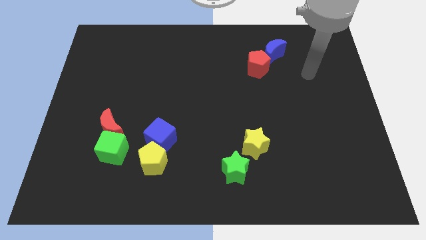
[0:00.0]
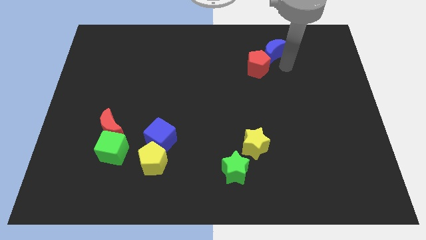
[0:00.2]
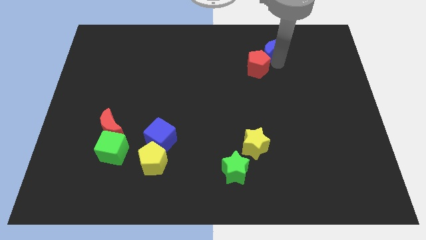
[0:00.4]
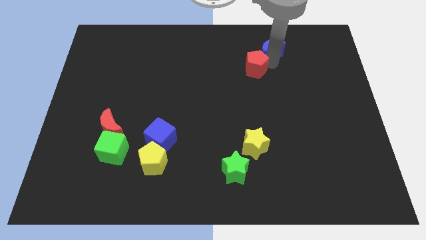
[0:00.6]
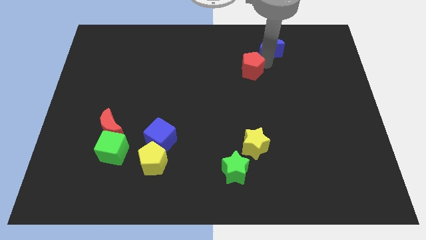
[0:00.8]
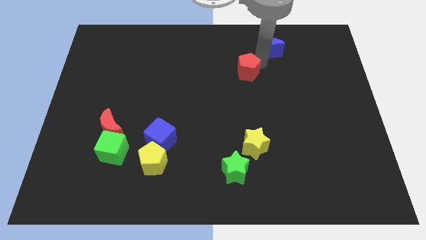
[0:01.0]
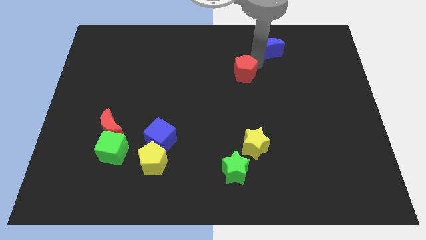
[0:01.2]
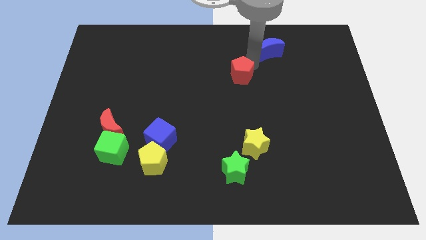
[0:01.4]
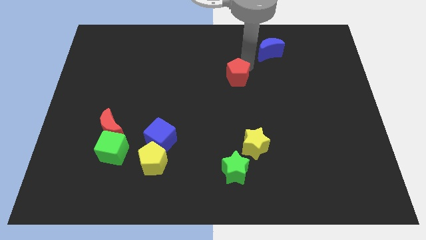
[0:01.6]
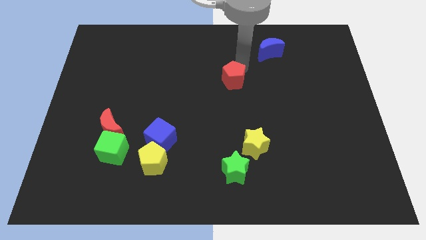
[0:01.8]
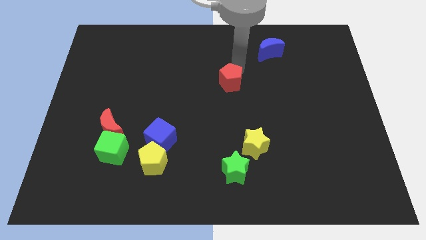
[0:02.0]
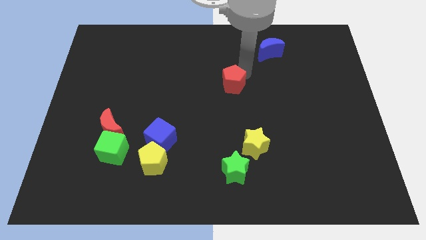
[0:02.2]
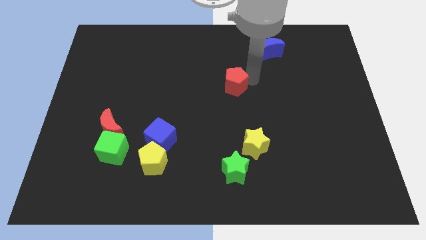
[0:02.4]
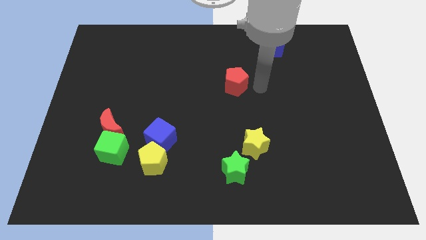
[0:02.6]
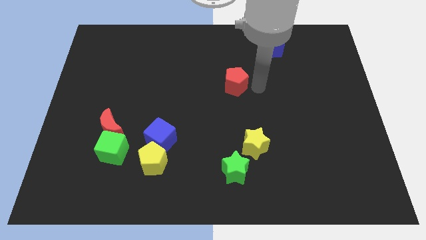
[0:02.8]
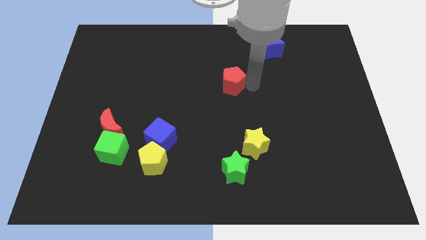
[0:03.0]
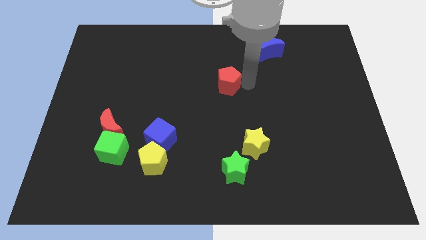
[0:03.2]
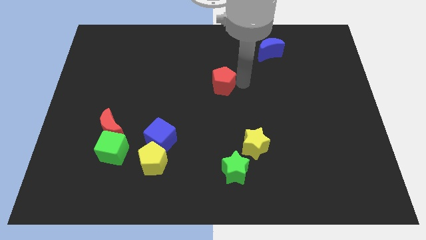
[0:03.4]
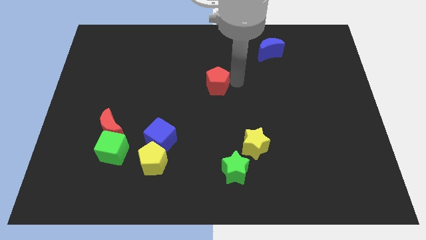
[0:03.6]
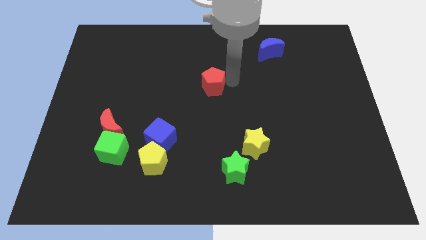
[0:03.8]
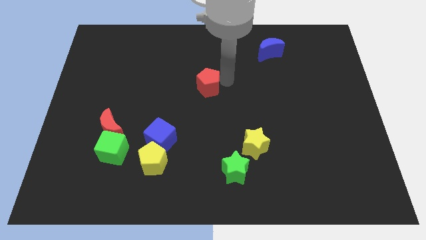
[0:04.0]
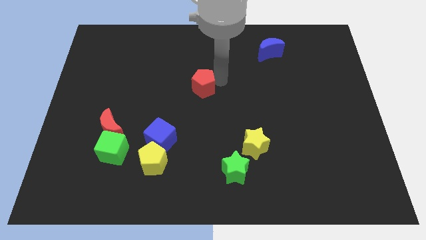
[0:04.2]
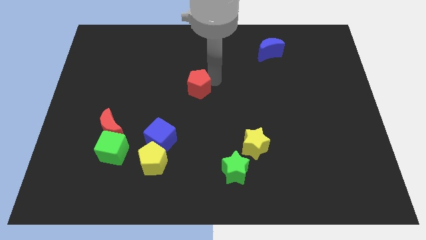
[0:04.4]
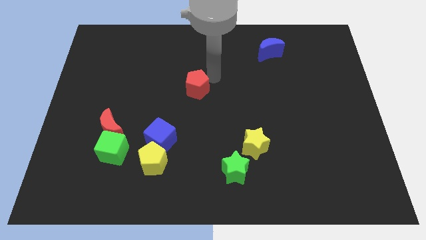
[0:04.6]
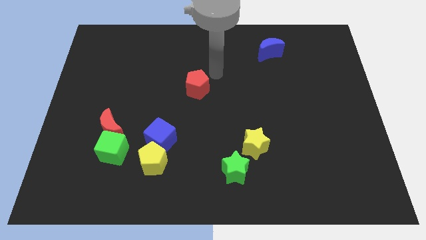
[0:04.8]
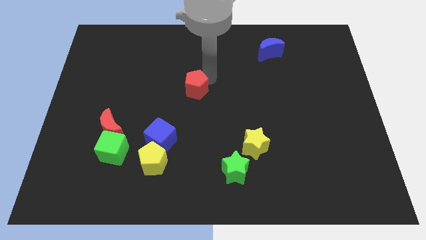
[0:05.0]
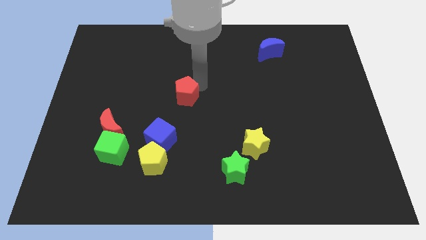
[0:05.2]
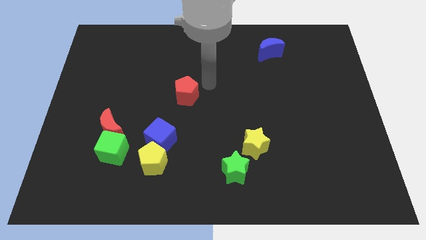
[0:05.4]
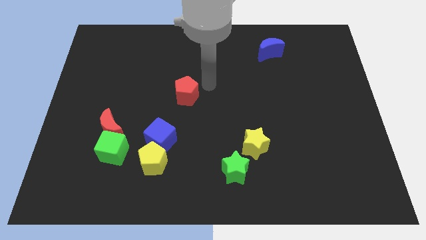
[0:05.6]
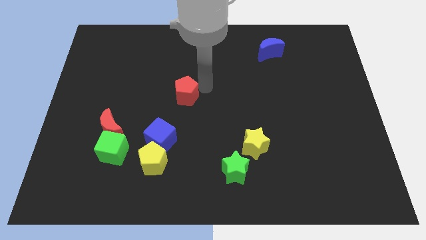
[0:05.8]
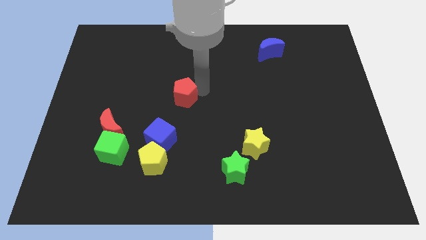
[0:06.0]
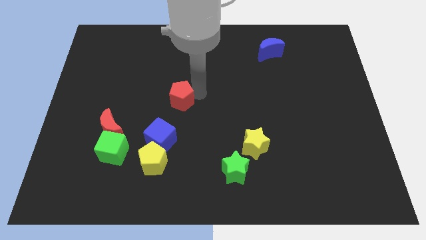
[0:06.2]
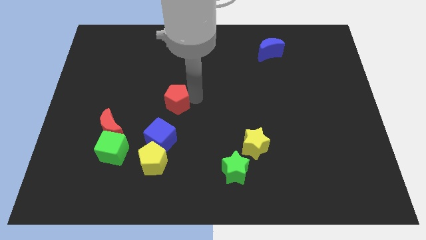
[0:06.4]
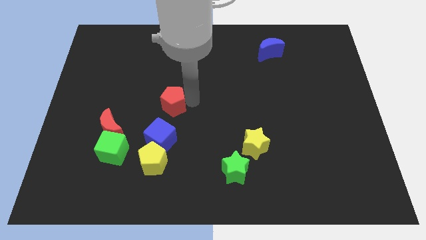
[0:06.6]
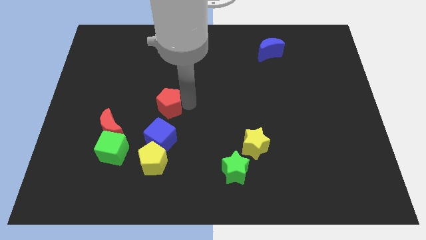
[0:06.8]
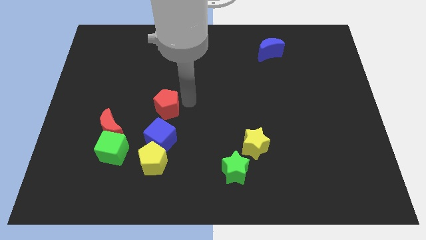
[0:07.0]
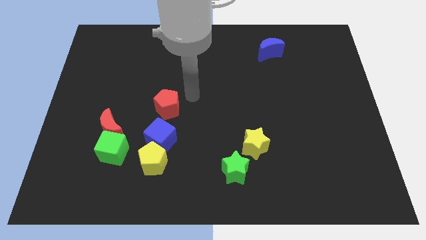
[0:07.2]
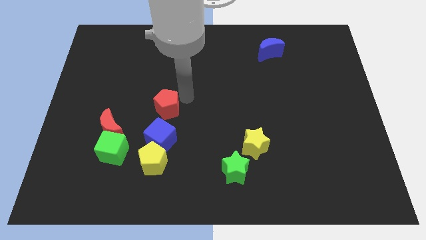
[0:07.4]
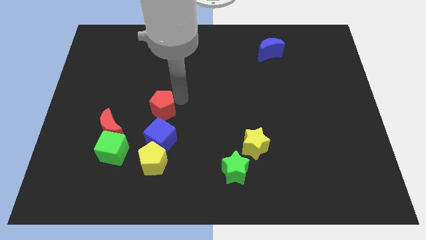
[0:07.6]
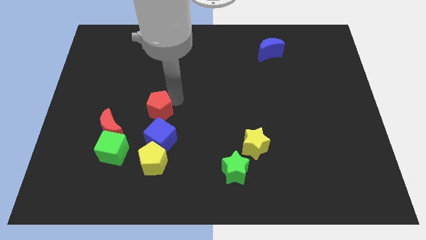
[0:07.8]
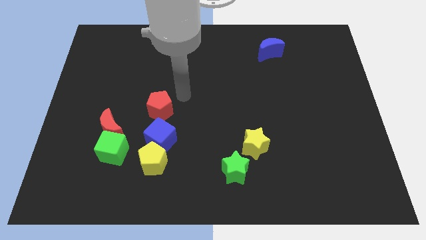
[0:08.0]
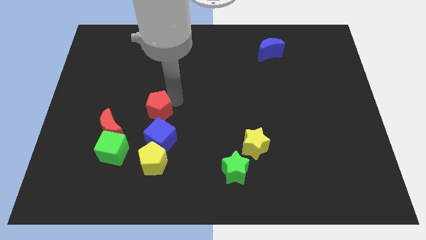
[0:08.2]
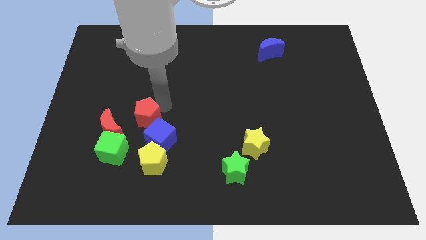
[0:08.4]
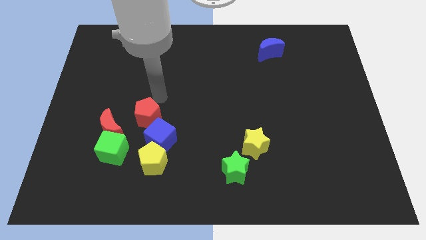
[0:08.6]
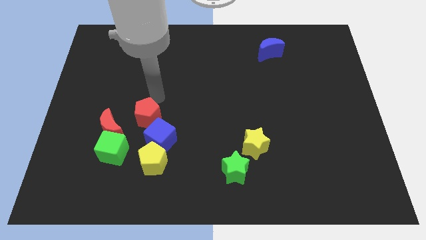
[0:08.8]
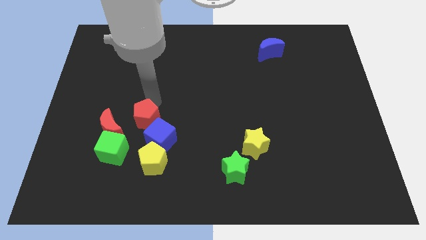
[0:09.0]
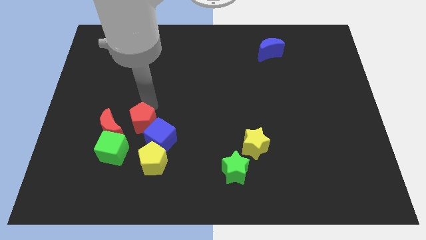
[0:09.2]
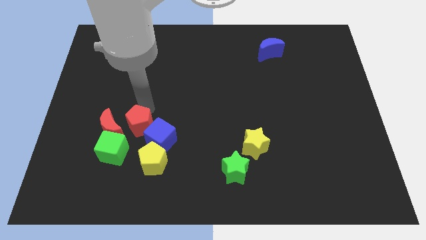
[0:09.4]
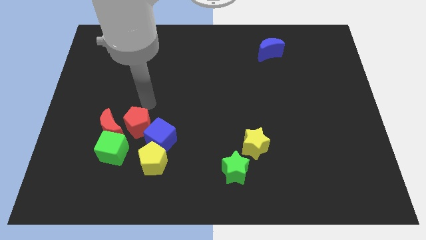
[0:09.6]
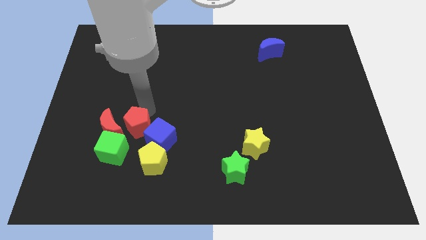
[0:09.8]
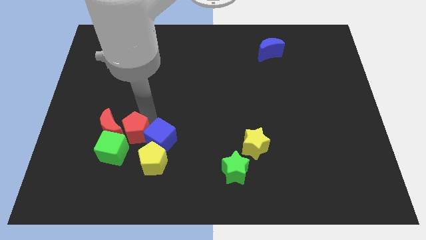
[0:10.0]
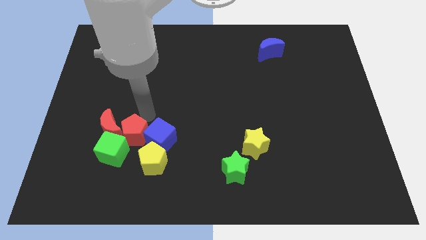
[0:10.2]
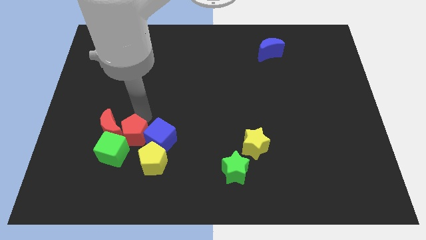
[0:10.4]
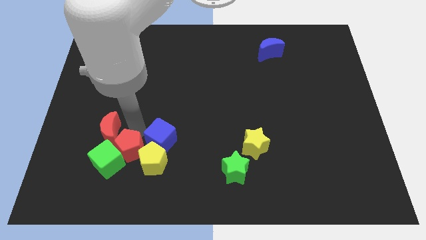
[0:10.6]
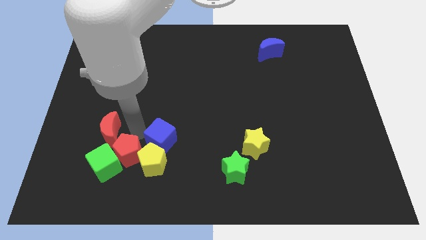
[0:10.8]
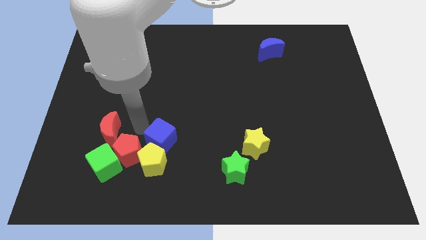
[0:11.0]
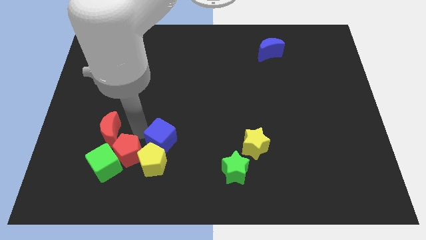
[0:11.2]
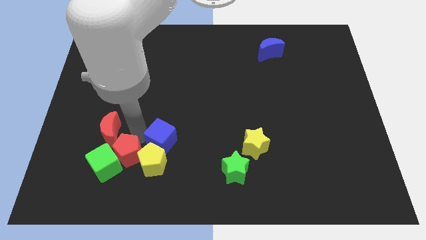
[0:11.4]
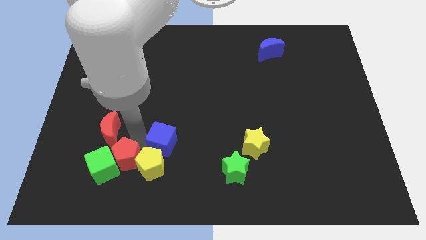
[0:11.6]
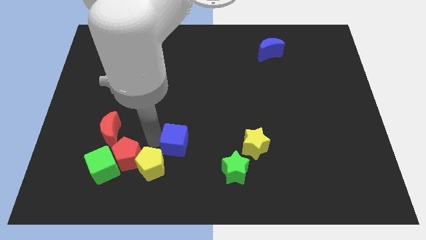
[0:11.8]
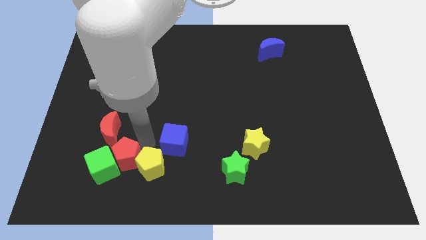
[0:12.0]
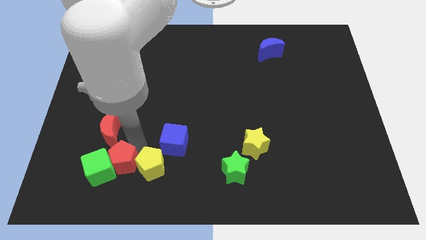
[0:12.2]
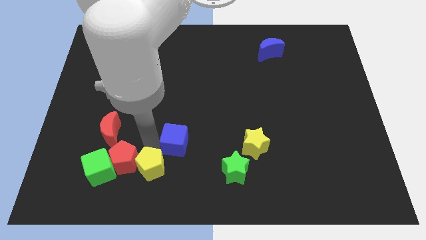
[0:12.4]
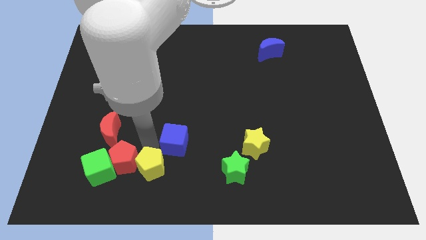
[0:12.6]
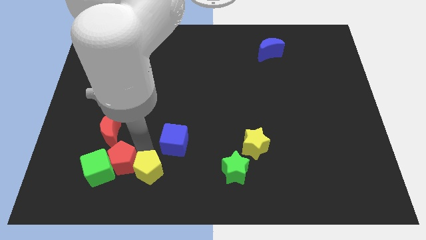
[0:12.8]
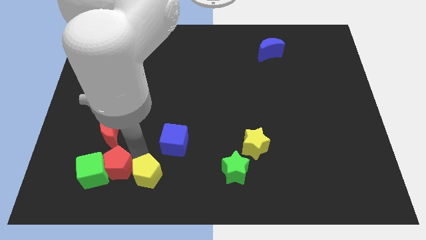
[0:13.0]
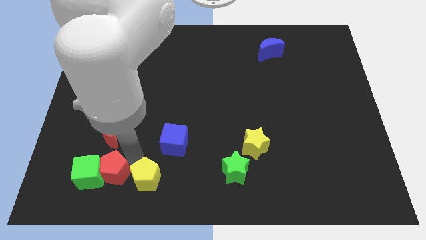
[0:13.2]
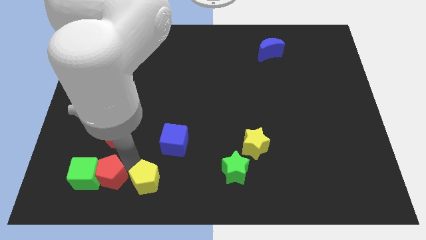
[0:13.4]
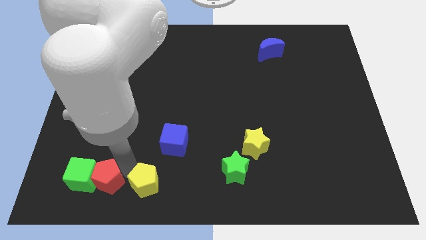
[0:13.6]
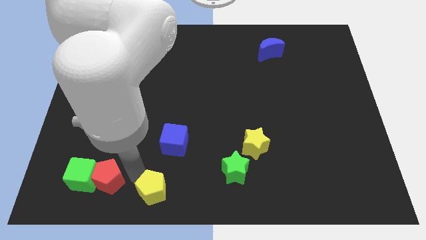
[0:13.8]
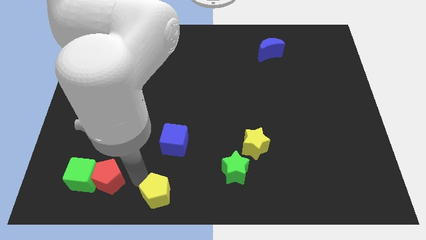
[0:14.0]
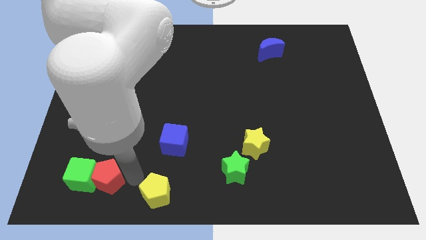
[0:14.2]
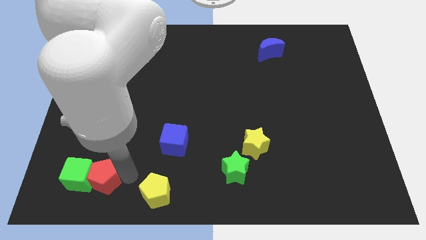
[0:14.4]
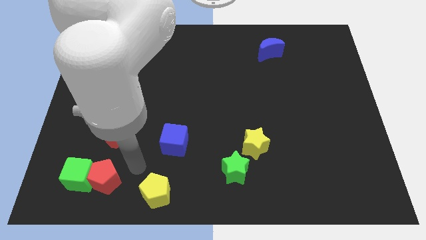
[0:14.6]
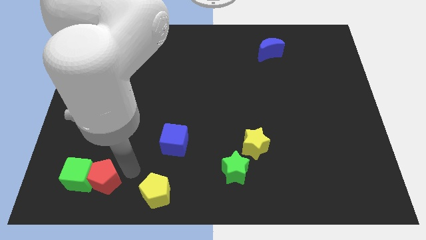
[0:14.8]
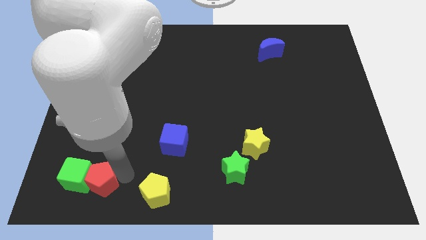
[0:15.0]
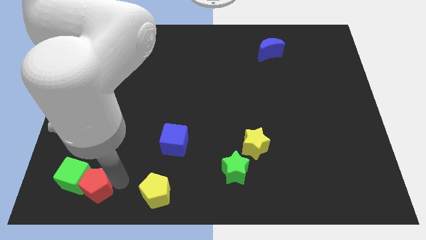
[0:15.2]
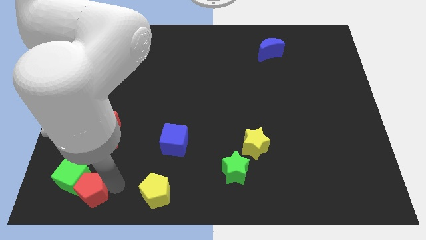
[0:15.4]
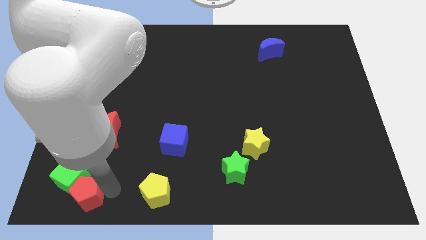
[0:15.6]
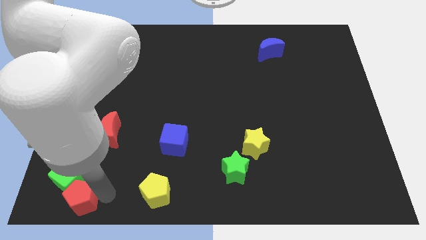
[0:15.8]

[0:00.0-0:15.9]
put the red pentagon to the bottom left
